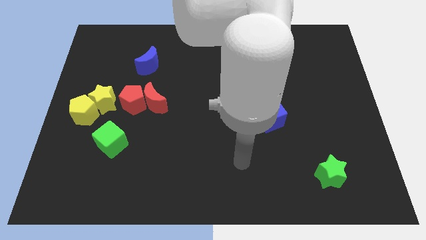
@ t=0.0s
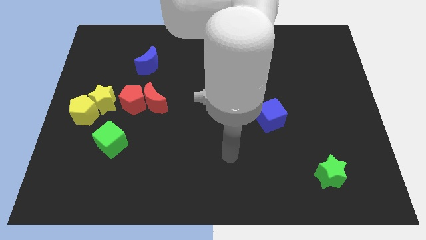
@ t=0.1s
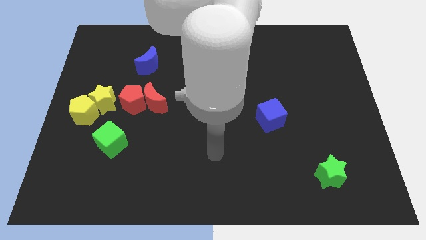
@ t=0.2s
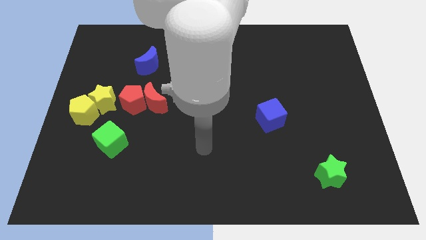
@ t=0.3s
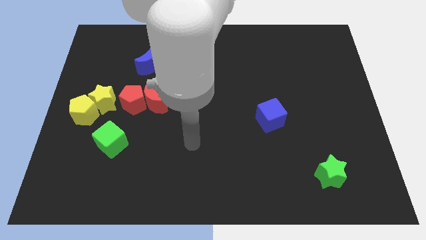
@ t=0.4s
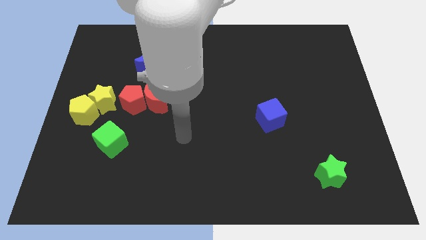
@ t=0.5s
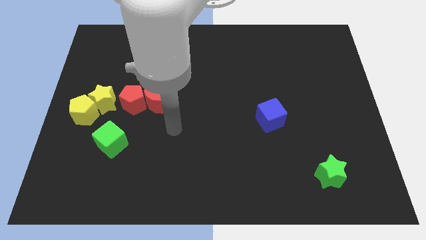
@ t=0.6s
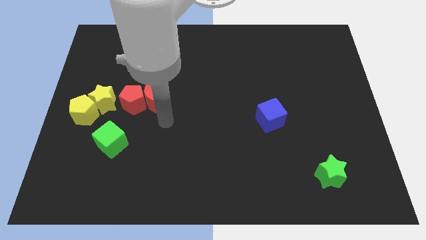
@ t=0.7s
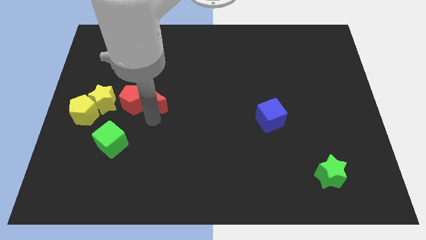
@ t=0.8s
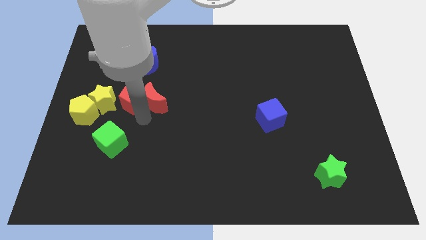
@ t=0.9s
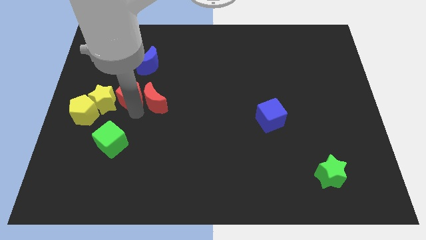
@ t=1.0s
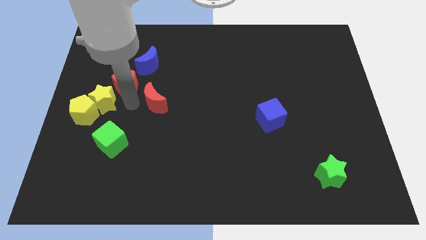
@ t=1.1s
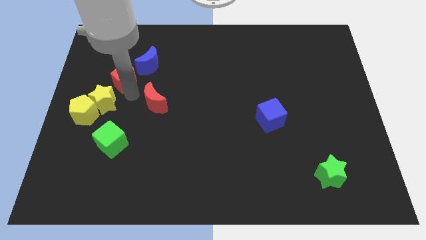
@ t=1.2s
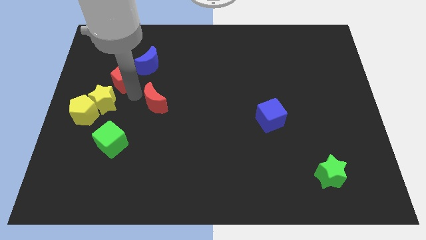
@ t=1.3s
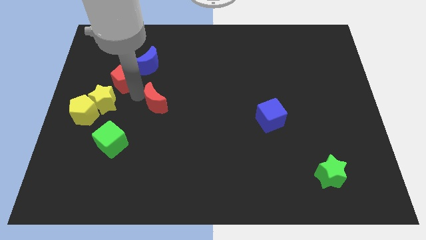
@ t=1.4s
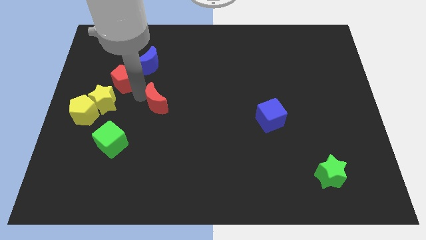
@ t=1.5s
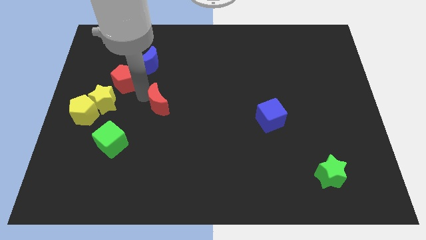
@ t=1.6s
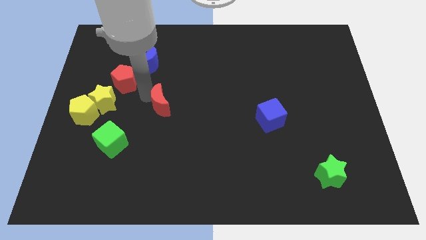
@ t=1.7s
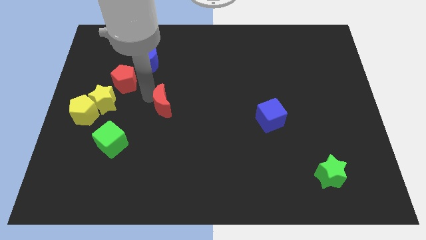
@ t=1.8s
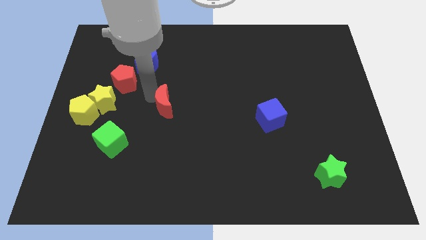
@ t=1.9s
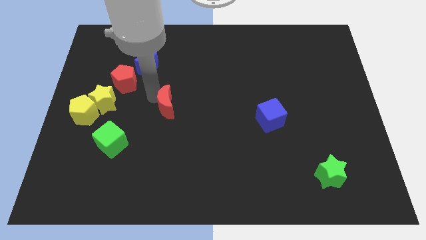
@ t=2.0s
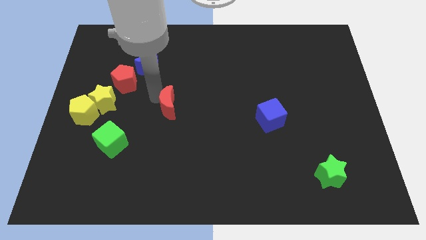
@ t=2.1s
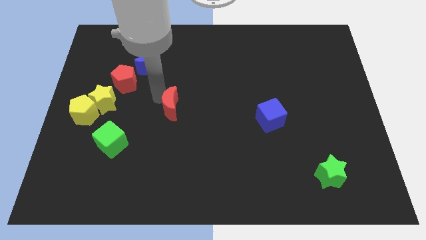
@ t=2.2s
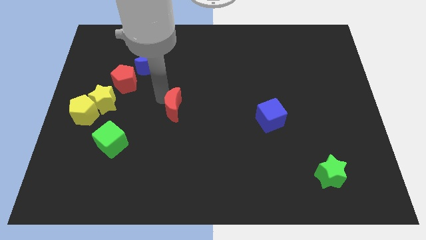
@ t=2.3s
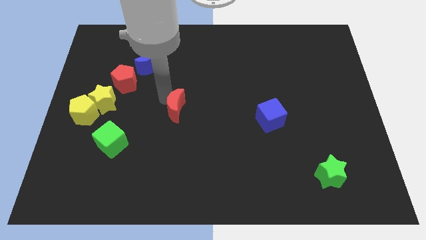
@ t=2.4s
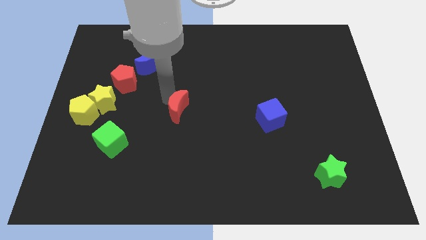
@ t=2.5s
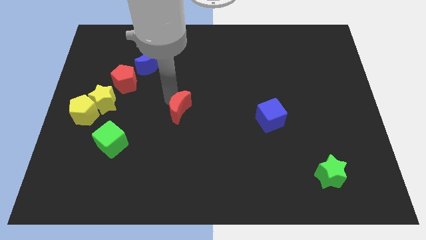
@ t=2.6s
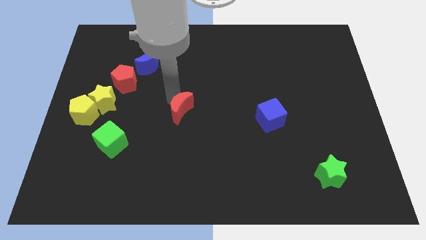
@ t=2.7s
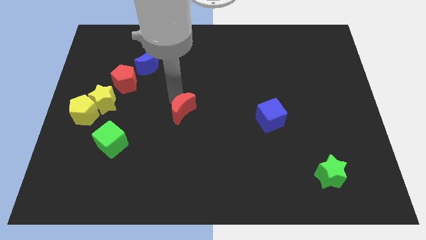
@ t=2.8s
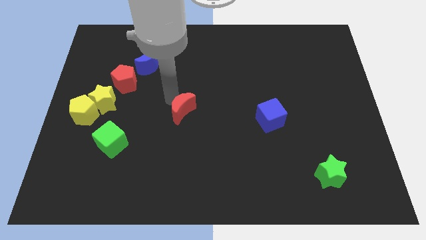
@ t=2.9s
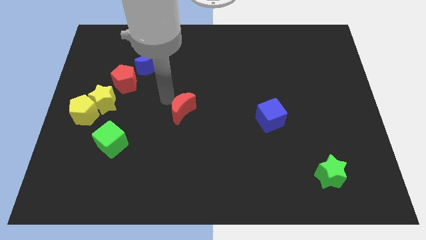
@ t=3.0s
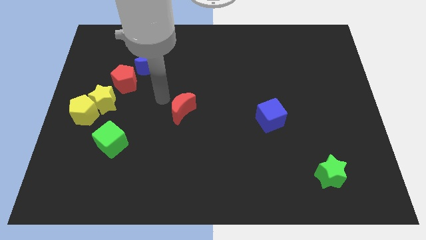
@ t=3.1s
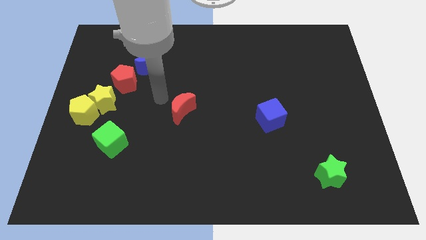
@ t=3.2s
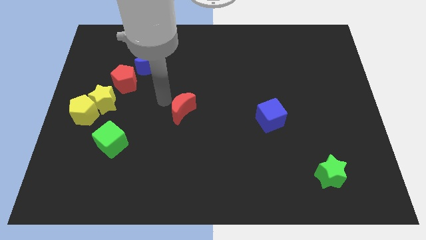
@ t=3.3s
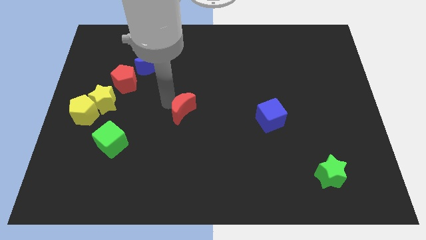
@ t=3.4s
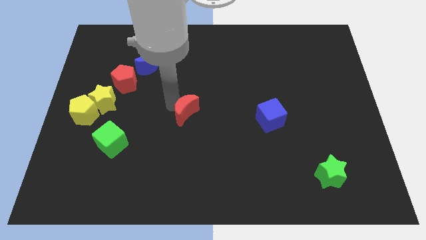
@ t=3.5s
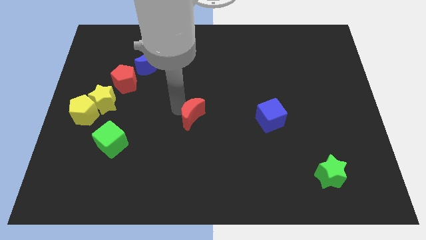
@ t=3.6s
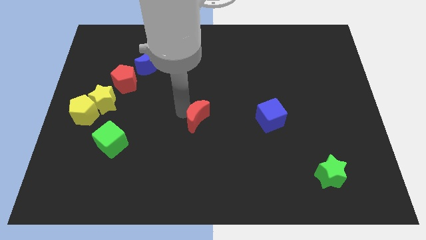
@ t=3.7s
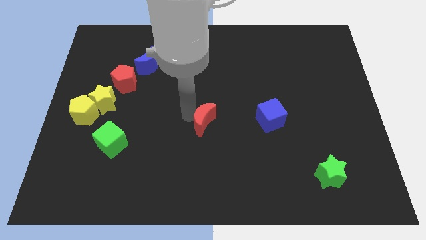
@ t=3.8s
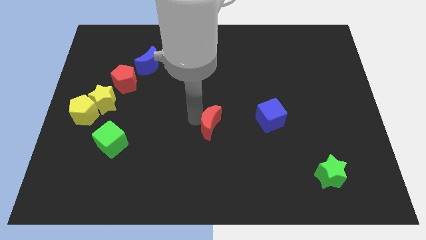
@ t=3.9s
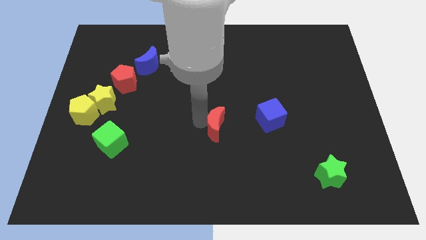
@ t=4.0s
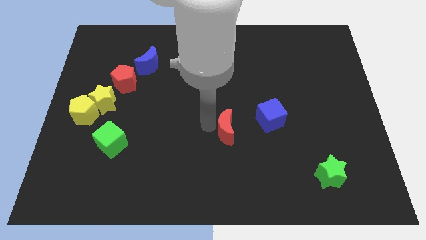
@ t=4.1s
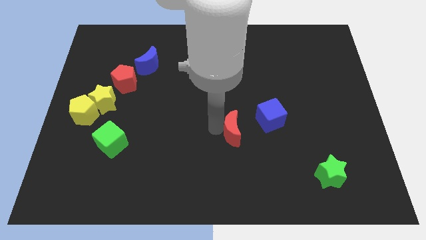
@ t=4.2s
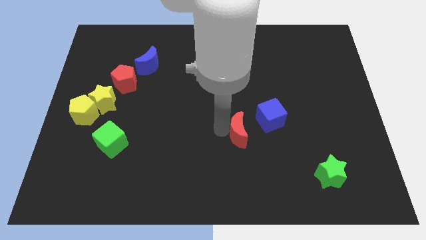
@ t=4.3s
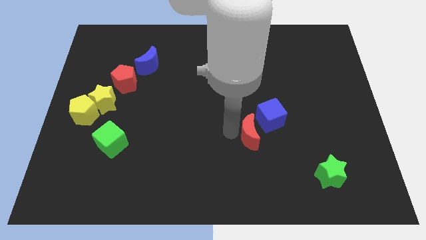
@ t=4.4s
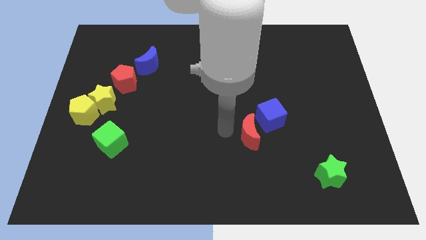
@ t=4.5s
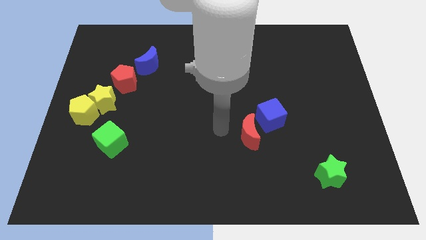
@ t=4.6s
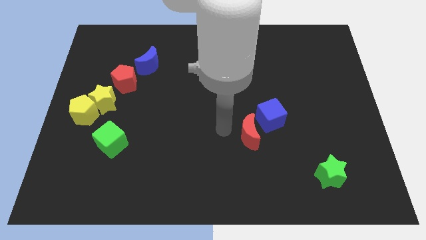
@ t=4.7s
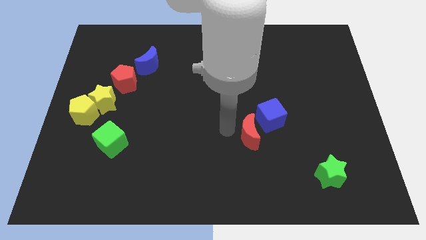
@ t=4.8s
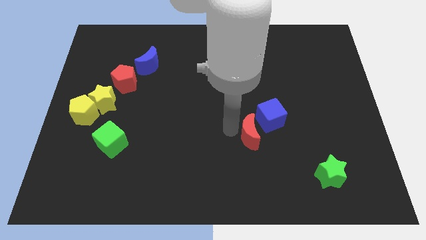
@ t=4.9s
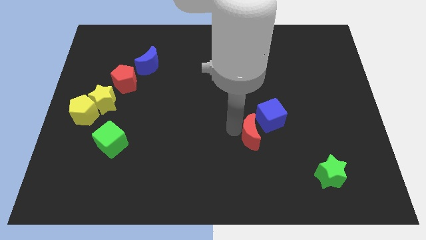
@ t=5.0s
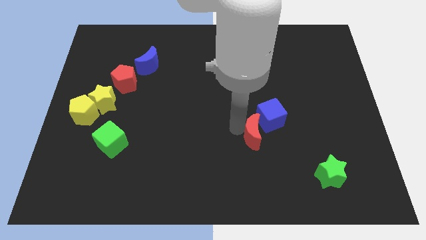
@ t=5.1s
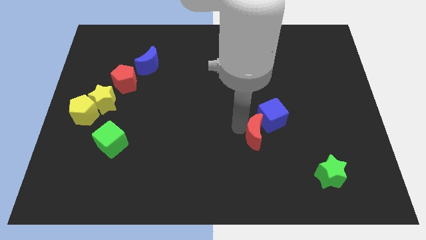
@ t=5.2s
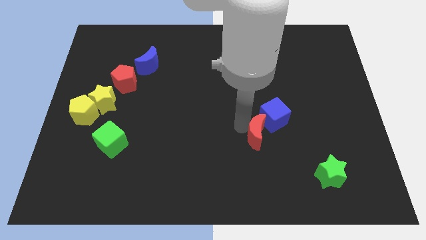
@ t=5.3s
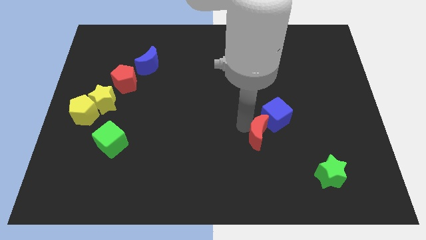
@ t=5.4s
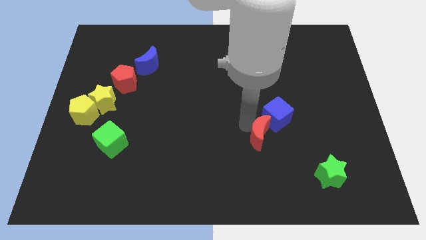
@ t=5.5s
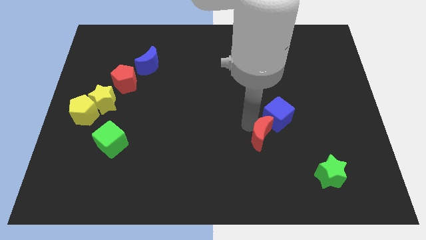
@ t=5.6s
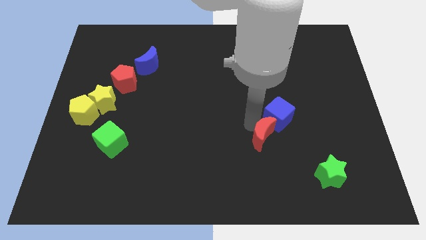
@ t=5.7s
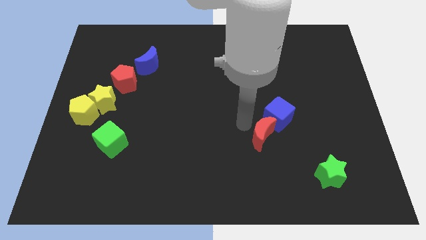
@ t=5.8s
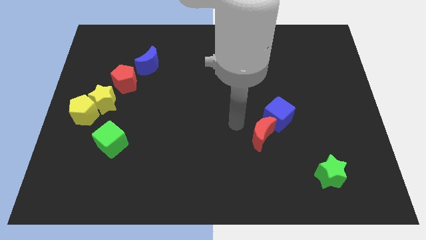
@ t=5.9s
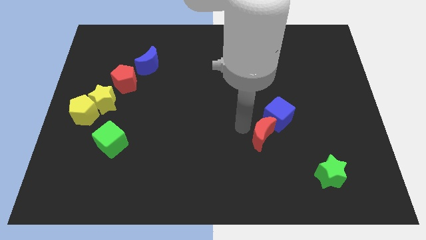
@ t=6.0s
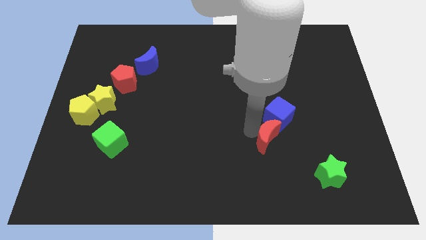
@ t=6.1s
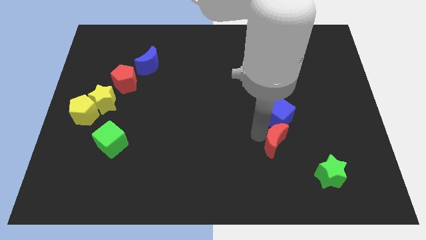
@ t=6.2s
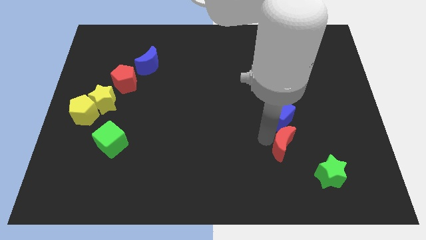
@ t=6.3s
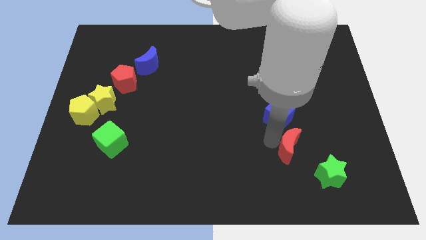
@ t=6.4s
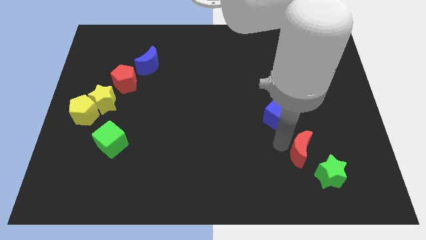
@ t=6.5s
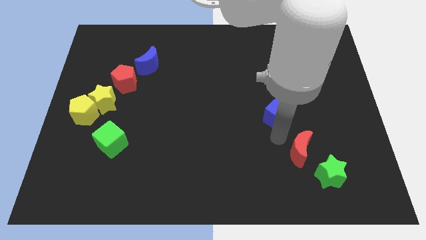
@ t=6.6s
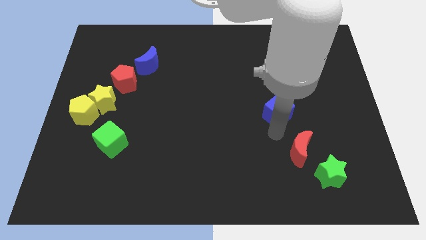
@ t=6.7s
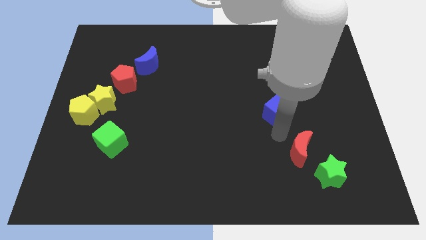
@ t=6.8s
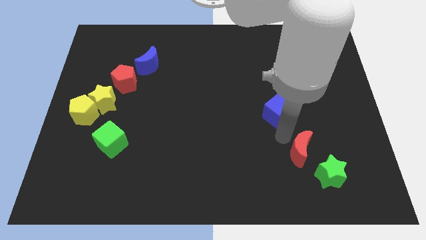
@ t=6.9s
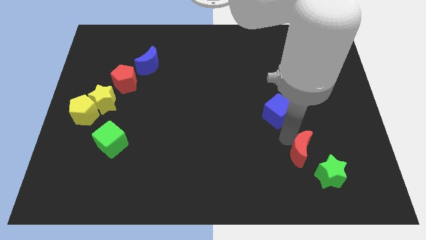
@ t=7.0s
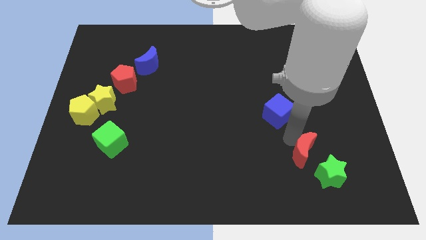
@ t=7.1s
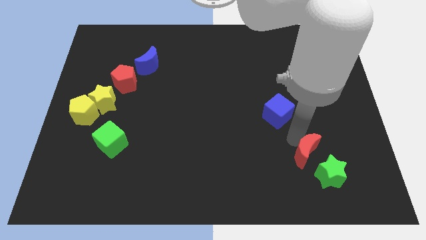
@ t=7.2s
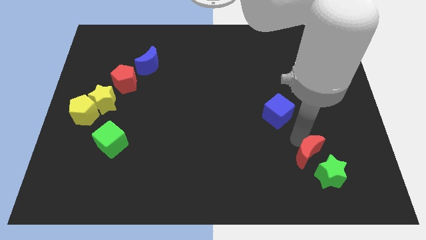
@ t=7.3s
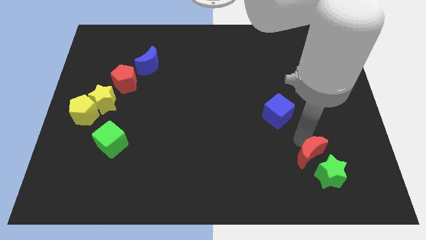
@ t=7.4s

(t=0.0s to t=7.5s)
put the red moon close to the green star
